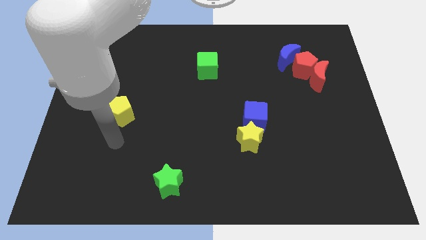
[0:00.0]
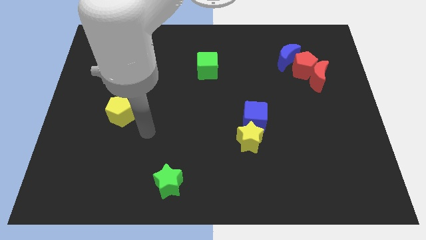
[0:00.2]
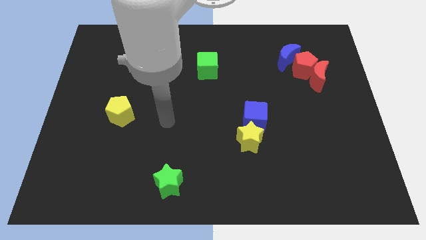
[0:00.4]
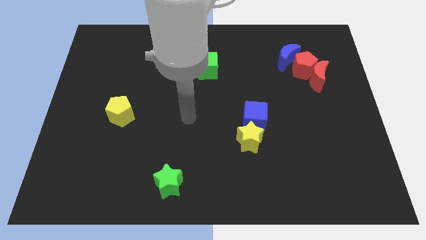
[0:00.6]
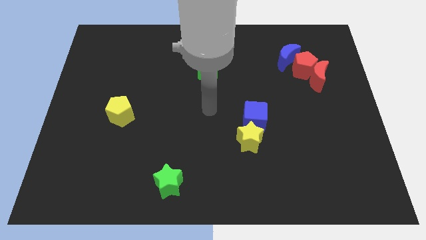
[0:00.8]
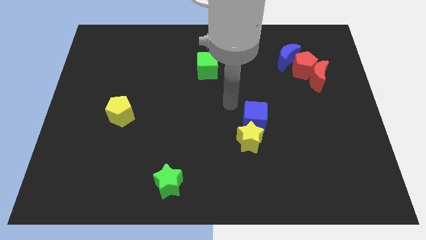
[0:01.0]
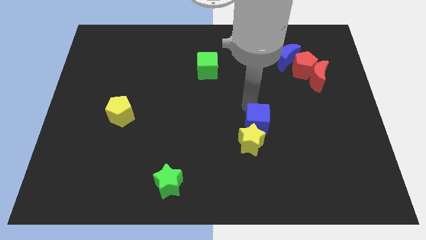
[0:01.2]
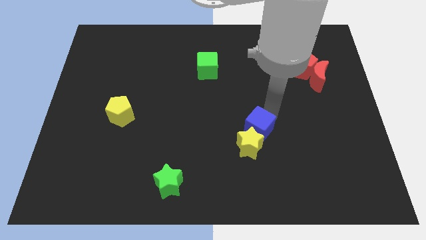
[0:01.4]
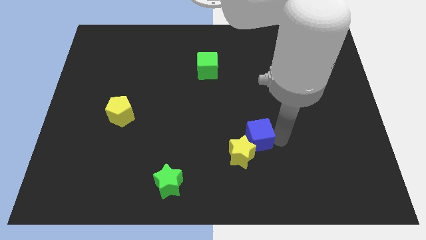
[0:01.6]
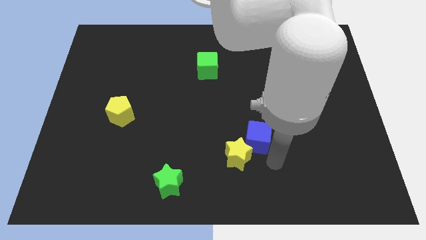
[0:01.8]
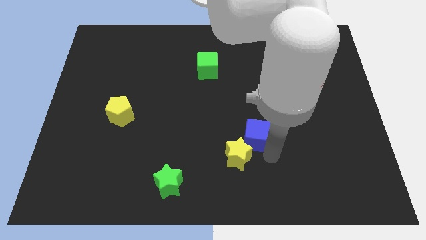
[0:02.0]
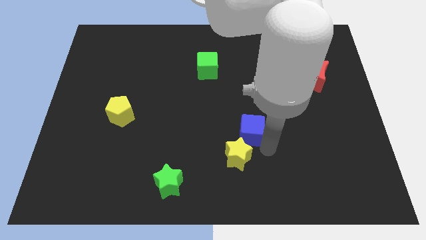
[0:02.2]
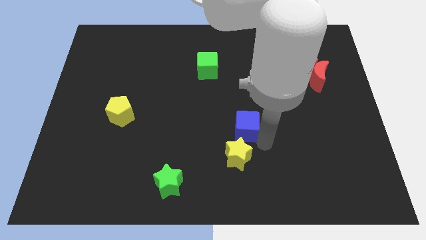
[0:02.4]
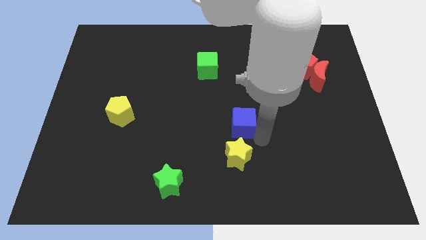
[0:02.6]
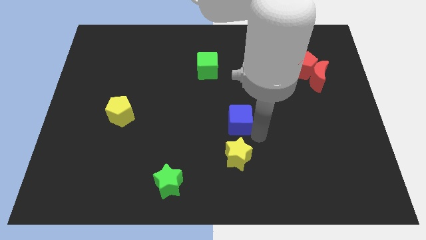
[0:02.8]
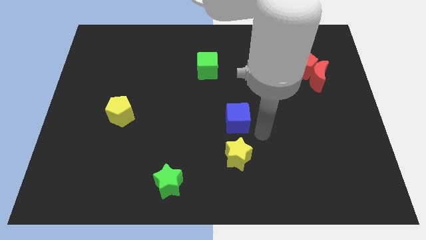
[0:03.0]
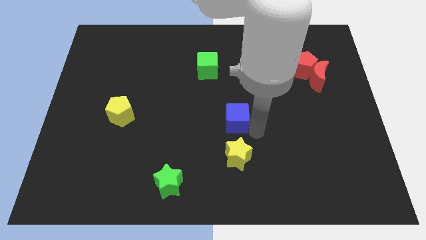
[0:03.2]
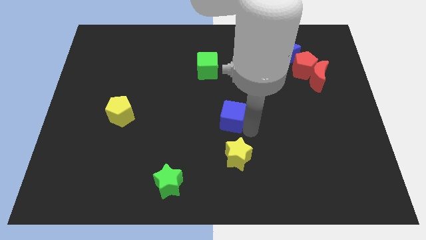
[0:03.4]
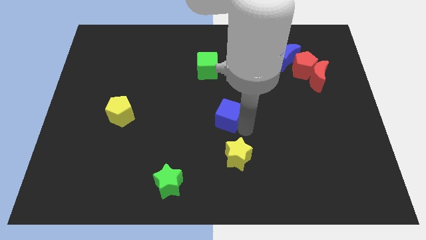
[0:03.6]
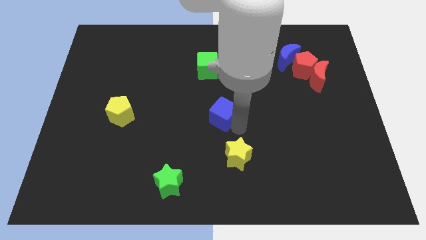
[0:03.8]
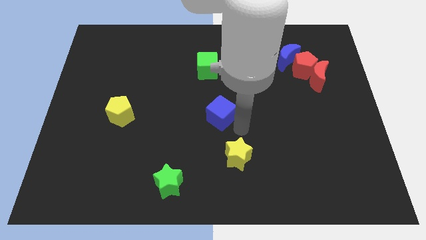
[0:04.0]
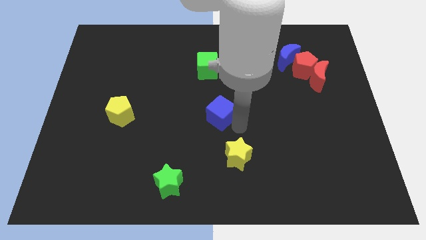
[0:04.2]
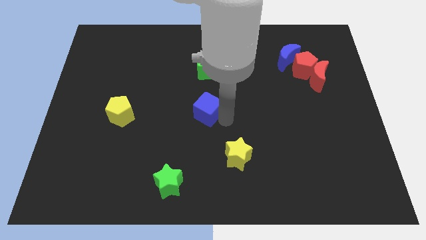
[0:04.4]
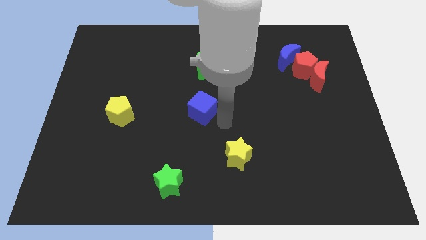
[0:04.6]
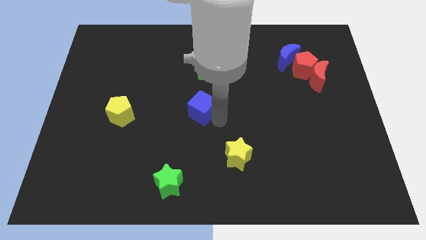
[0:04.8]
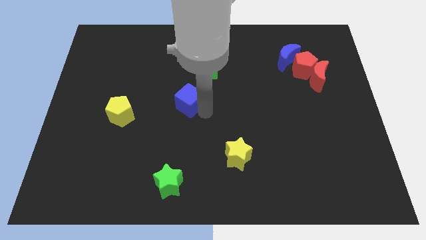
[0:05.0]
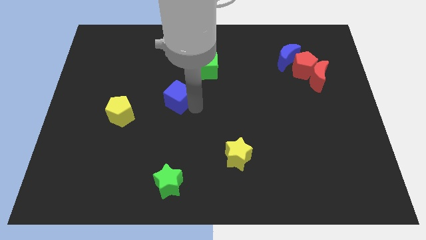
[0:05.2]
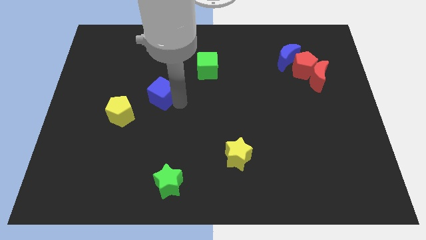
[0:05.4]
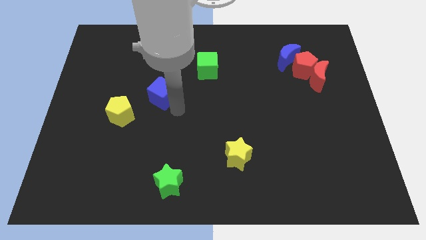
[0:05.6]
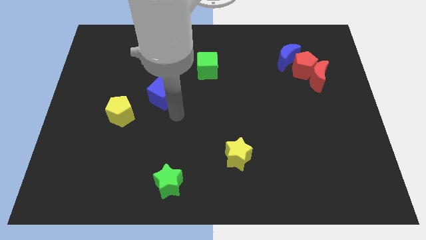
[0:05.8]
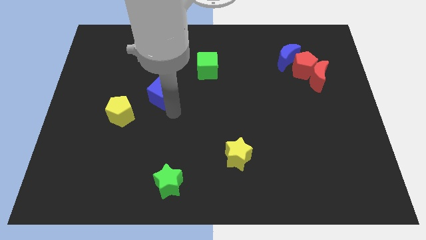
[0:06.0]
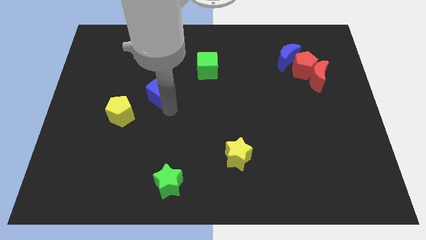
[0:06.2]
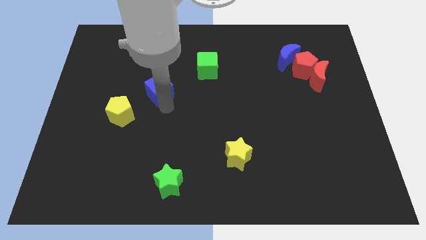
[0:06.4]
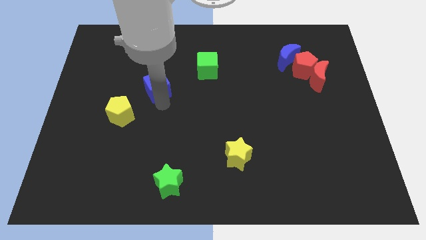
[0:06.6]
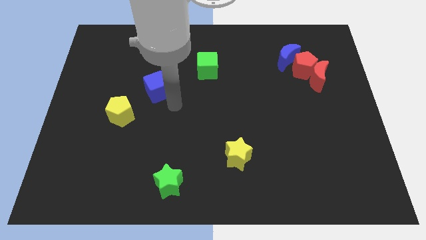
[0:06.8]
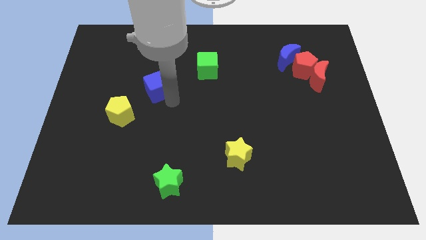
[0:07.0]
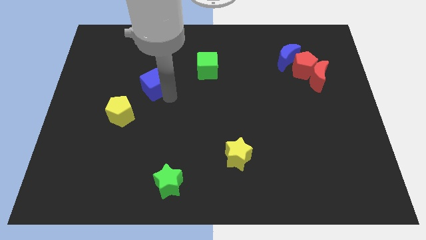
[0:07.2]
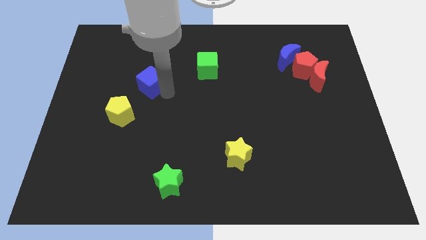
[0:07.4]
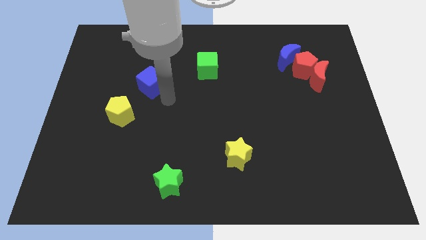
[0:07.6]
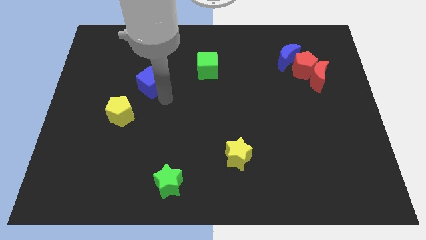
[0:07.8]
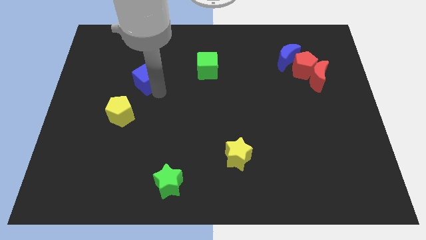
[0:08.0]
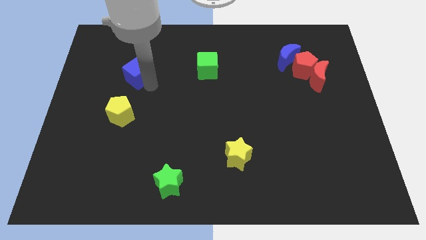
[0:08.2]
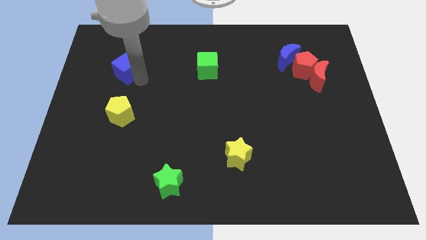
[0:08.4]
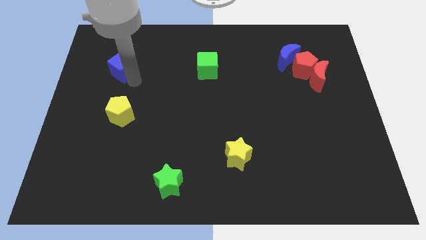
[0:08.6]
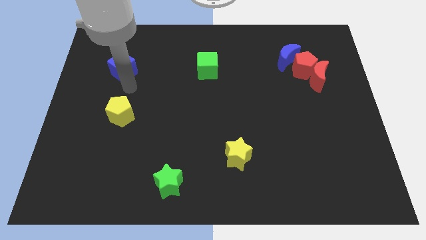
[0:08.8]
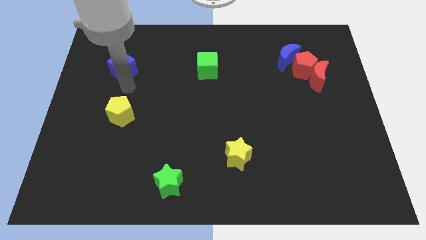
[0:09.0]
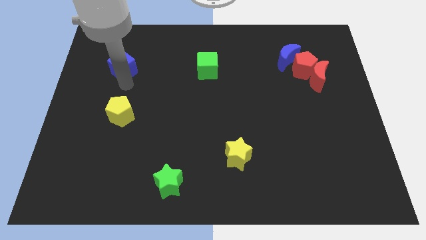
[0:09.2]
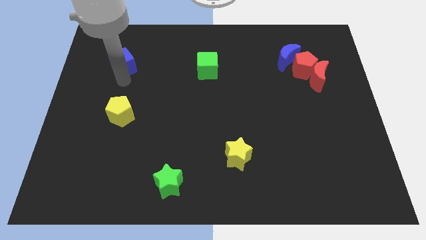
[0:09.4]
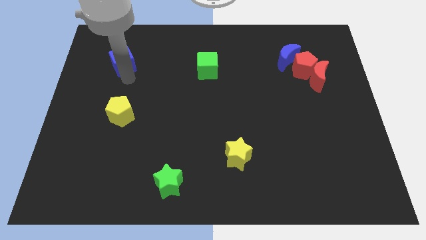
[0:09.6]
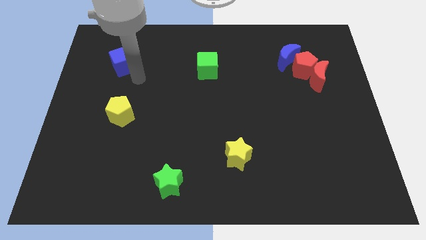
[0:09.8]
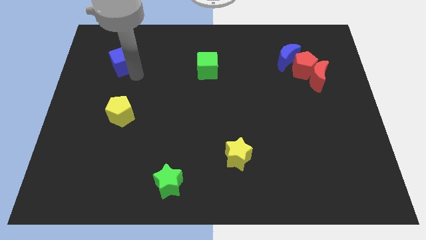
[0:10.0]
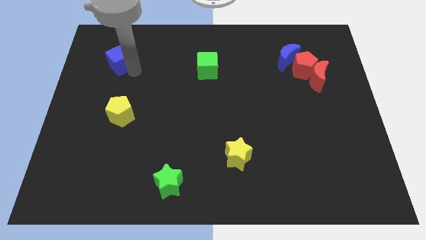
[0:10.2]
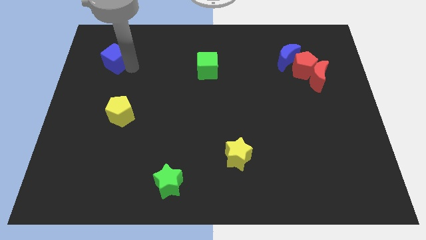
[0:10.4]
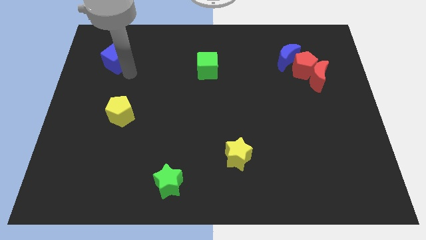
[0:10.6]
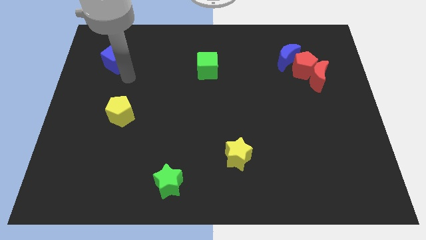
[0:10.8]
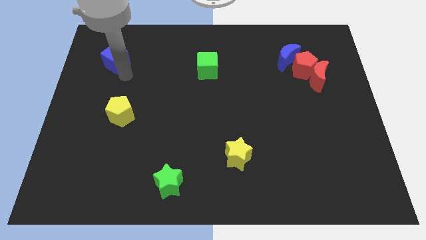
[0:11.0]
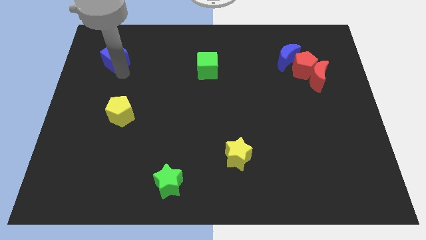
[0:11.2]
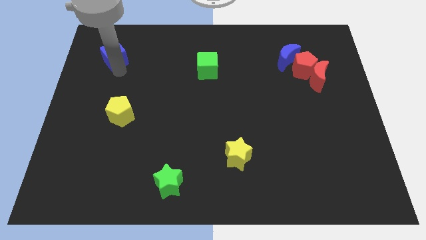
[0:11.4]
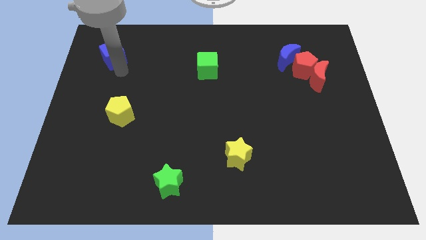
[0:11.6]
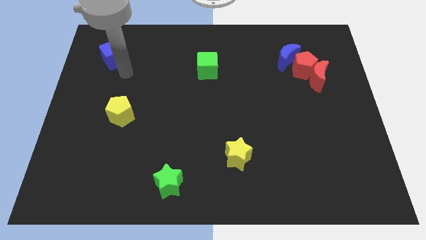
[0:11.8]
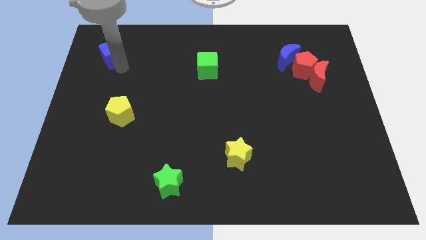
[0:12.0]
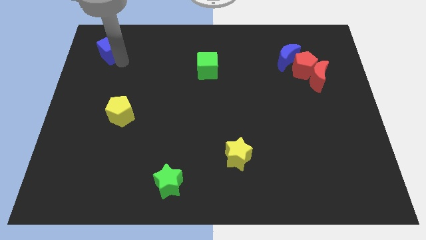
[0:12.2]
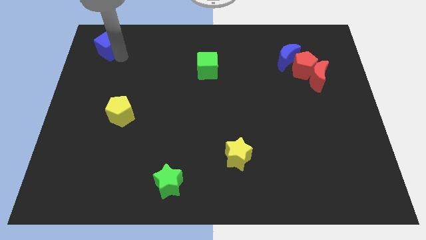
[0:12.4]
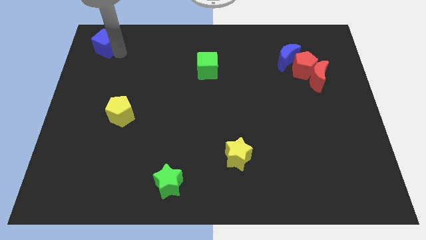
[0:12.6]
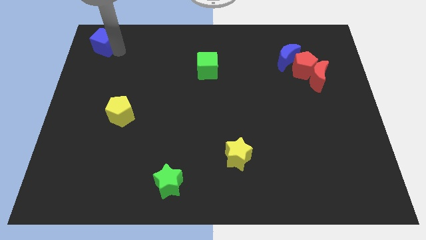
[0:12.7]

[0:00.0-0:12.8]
slide the blue cube to the top left of the board

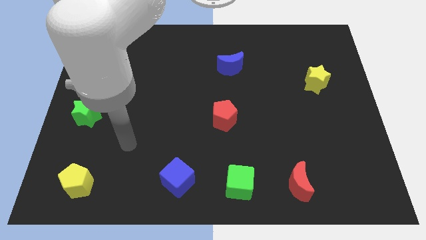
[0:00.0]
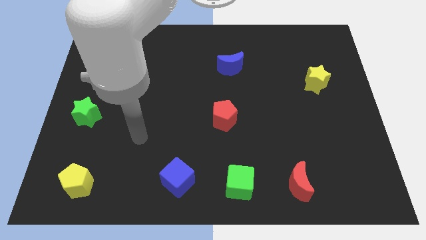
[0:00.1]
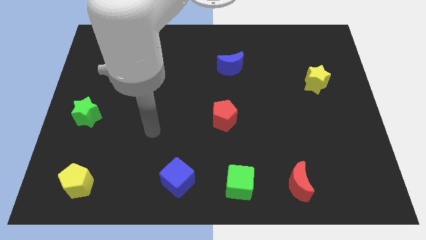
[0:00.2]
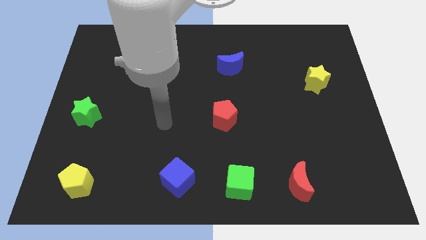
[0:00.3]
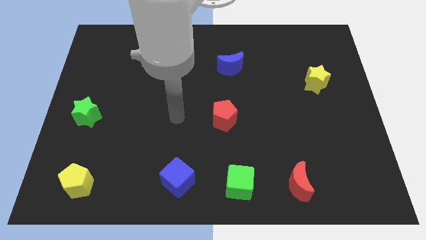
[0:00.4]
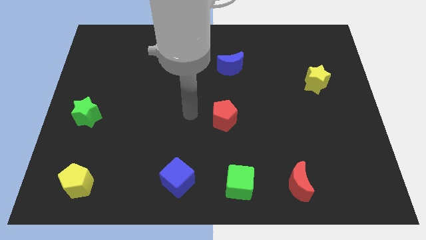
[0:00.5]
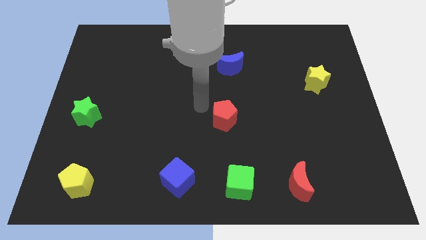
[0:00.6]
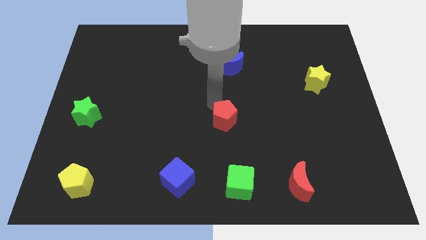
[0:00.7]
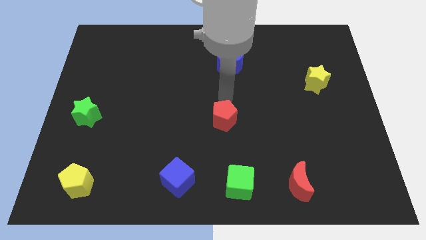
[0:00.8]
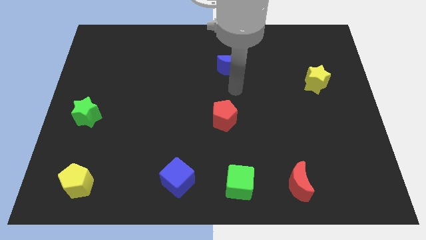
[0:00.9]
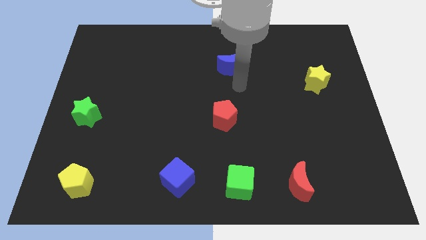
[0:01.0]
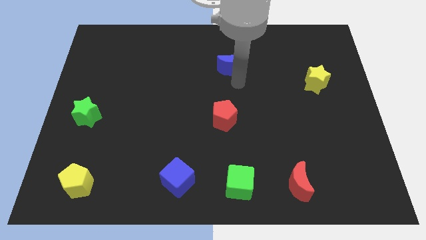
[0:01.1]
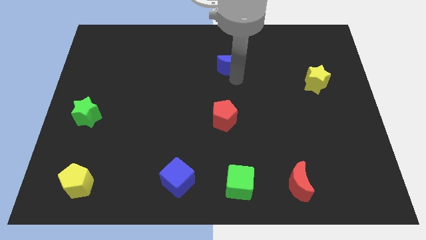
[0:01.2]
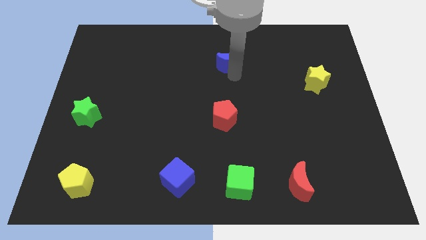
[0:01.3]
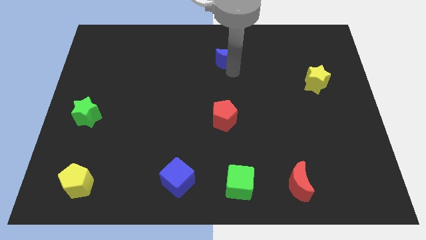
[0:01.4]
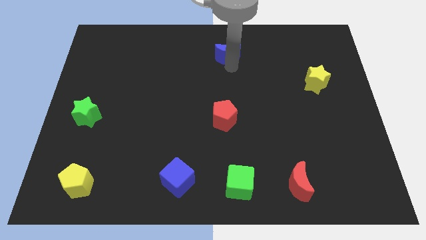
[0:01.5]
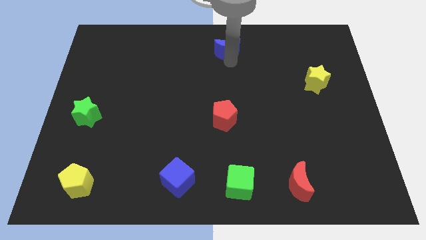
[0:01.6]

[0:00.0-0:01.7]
push the blue moon to the top
